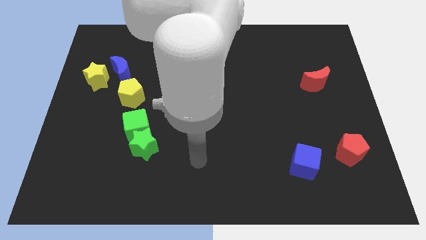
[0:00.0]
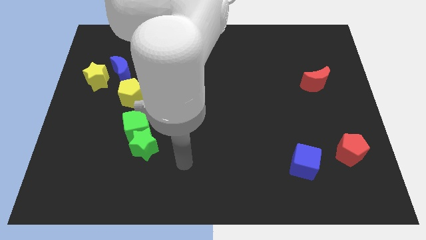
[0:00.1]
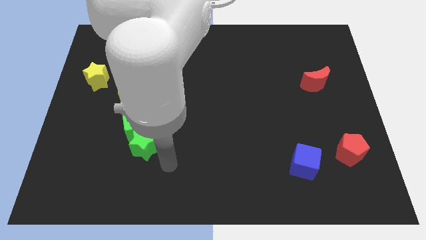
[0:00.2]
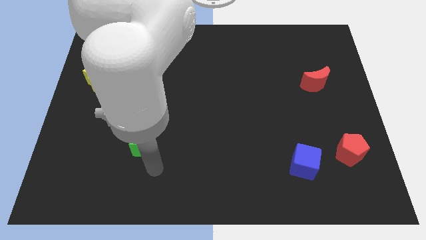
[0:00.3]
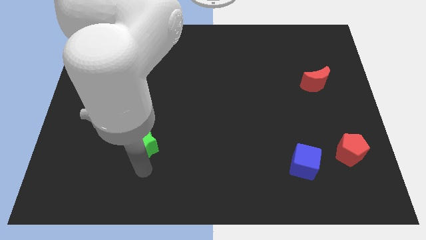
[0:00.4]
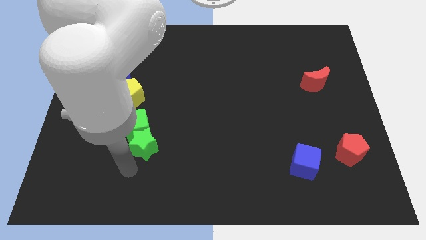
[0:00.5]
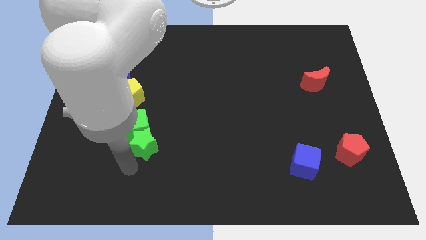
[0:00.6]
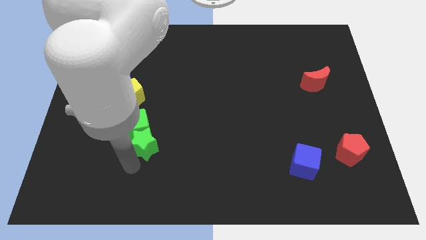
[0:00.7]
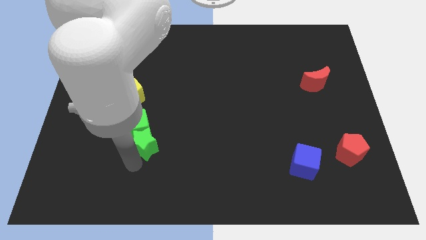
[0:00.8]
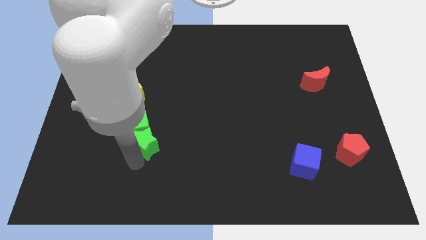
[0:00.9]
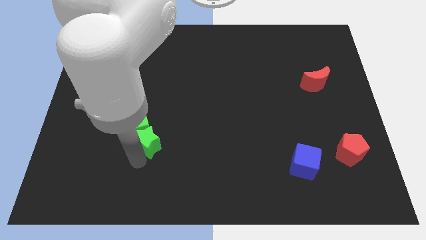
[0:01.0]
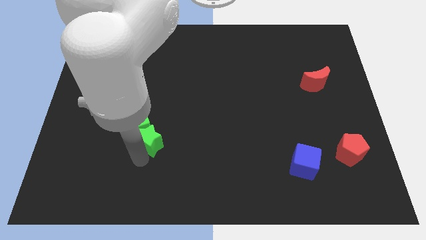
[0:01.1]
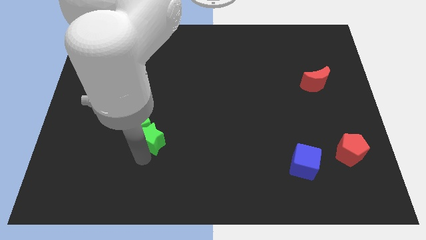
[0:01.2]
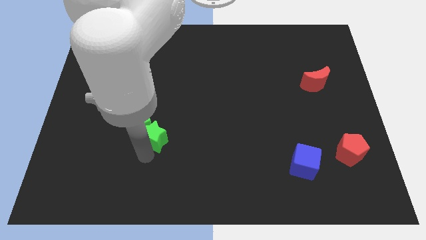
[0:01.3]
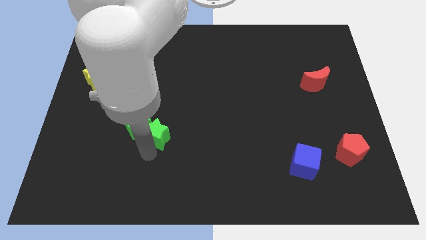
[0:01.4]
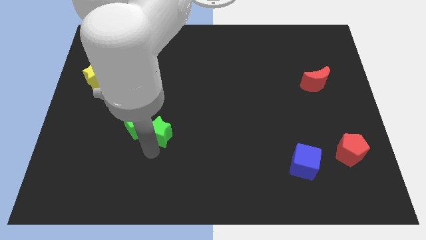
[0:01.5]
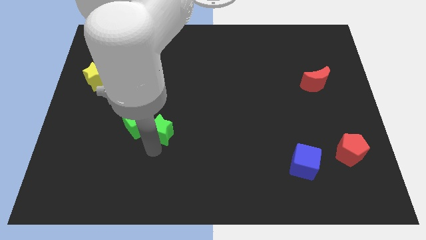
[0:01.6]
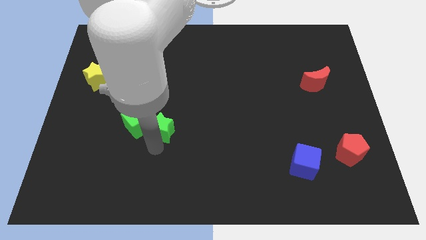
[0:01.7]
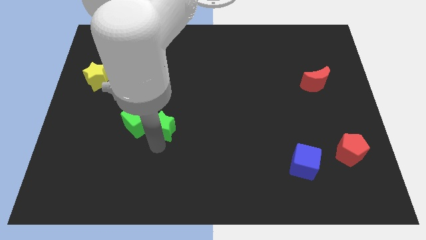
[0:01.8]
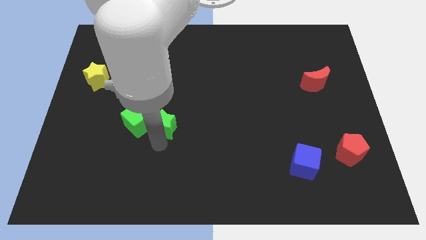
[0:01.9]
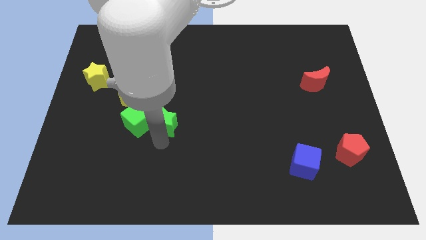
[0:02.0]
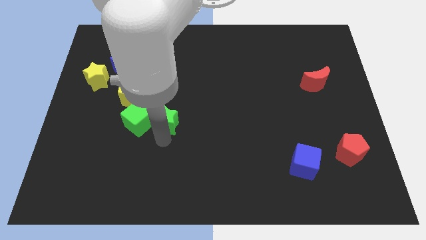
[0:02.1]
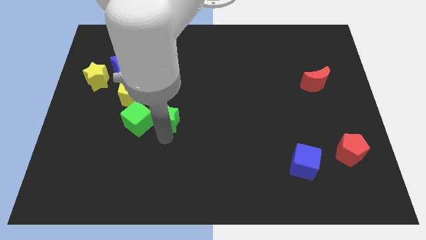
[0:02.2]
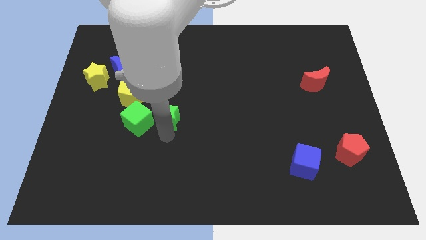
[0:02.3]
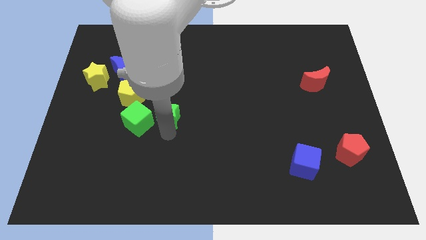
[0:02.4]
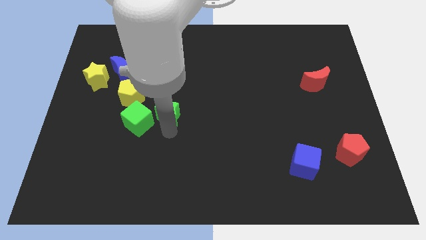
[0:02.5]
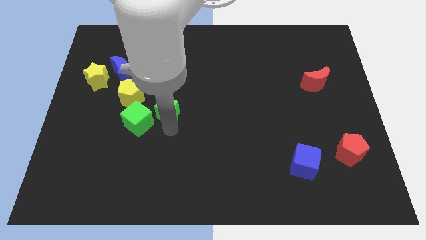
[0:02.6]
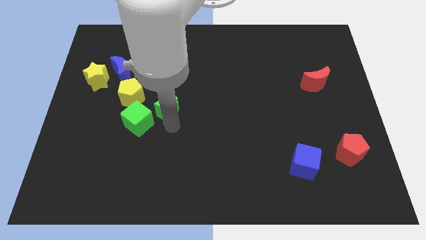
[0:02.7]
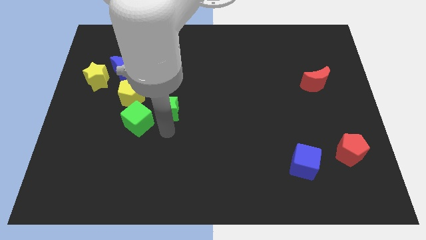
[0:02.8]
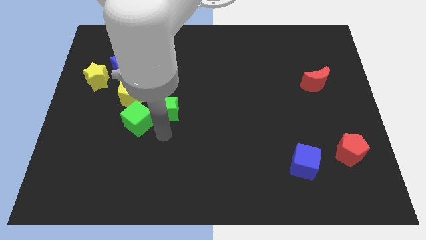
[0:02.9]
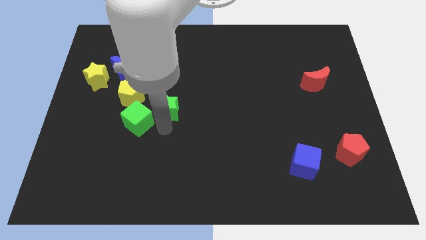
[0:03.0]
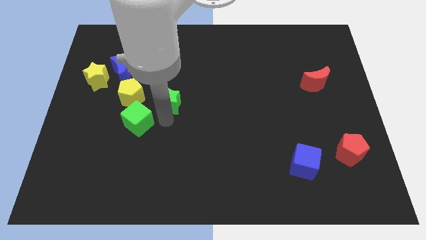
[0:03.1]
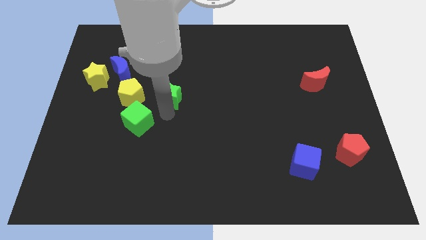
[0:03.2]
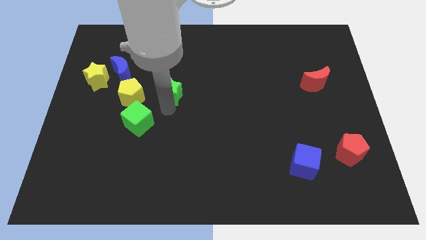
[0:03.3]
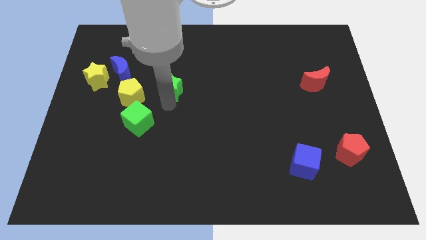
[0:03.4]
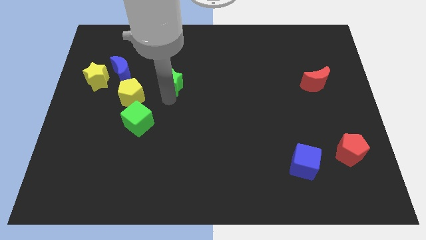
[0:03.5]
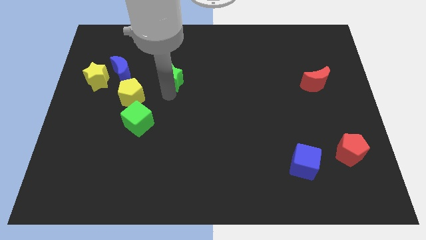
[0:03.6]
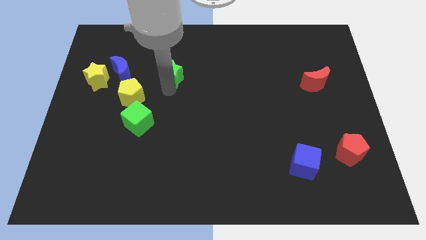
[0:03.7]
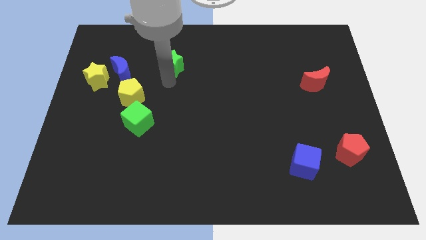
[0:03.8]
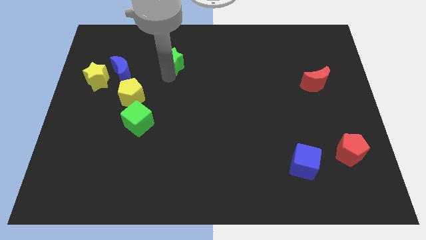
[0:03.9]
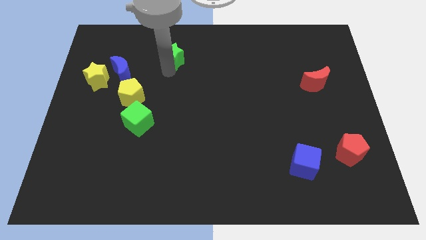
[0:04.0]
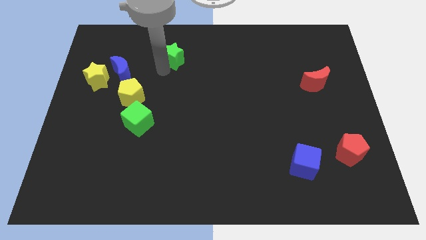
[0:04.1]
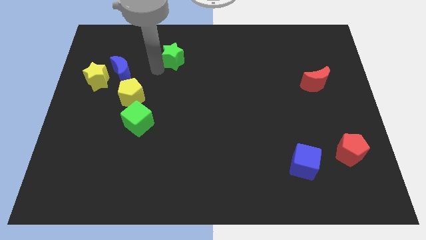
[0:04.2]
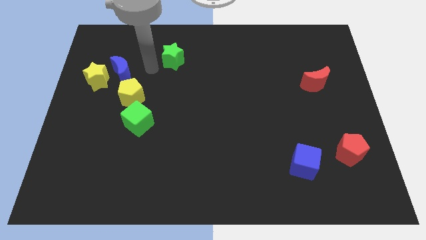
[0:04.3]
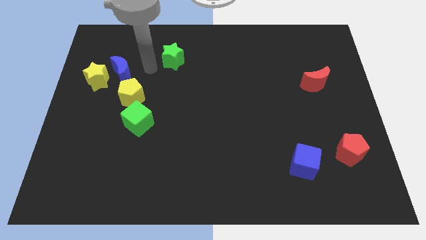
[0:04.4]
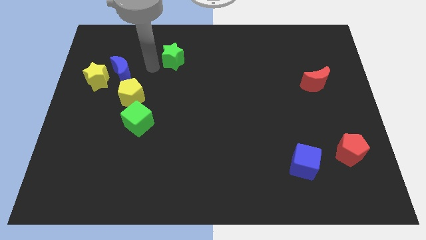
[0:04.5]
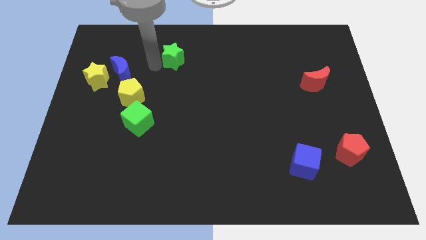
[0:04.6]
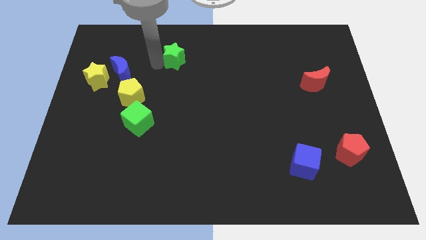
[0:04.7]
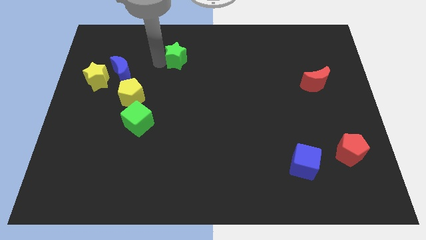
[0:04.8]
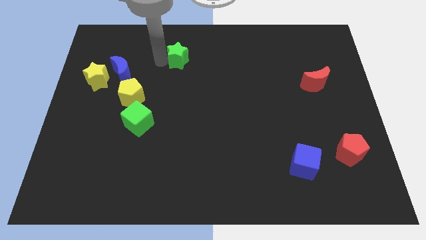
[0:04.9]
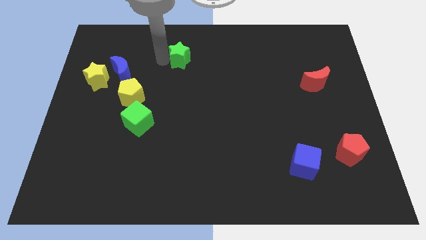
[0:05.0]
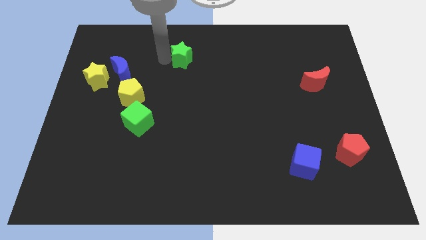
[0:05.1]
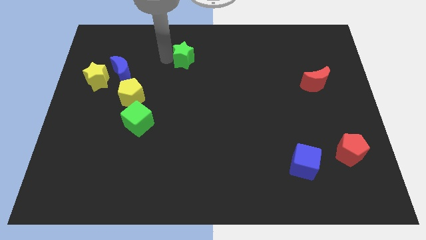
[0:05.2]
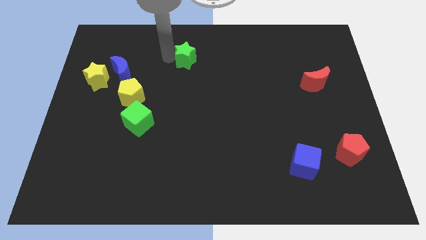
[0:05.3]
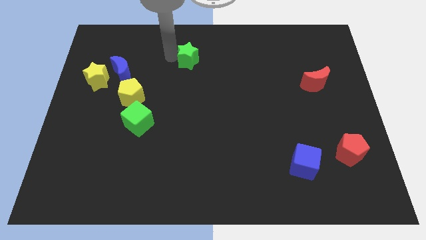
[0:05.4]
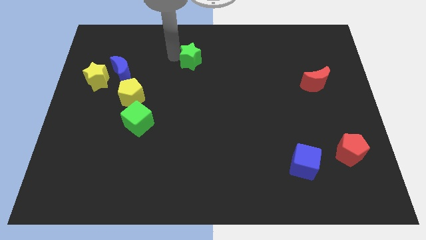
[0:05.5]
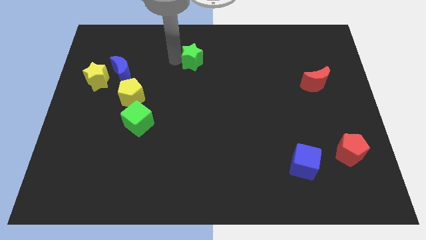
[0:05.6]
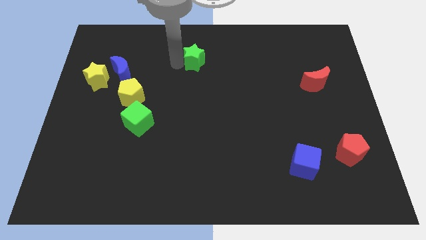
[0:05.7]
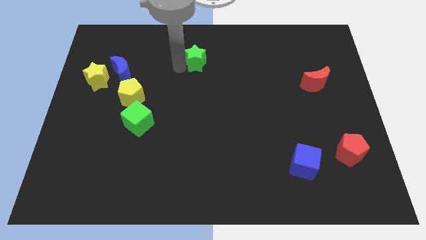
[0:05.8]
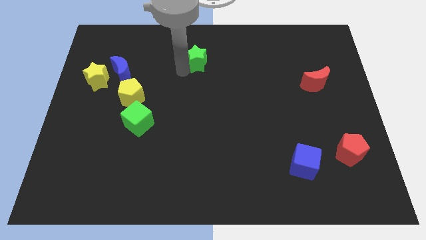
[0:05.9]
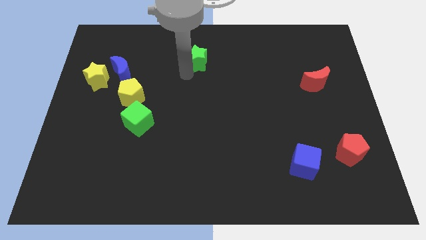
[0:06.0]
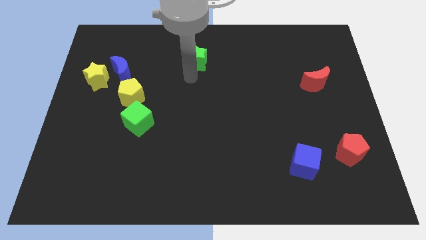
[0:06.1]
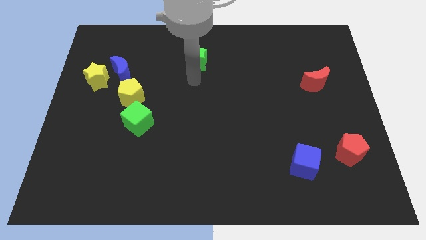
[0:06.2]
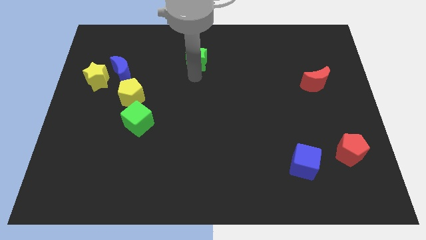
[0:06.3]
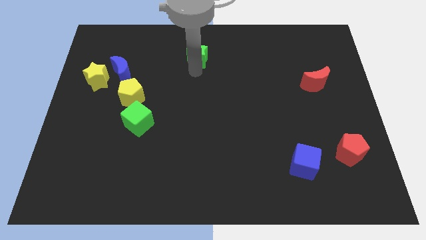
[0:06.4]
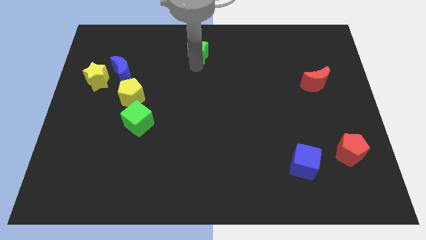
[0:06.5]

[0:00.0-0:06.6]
put the green star to the towards your base

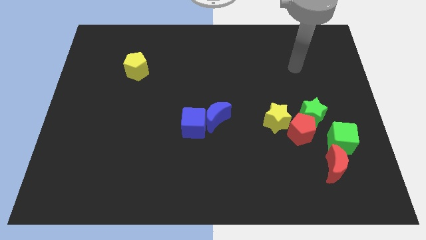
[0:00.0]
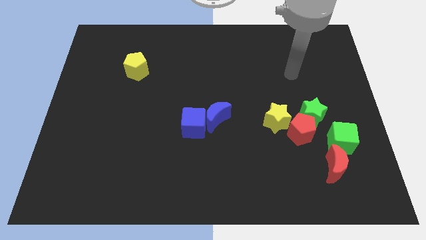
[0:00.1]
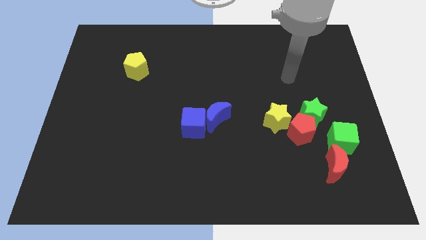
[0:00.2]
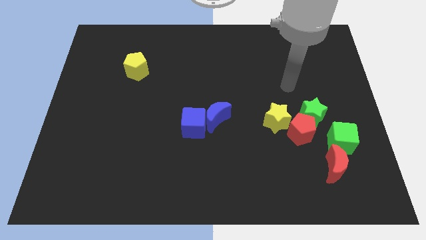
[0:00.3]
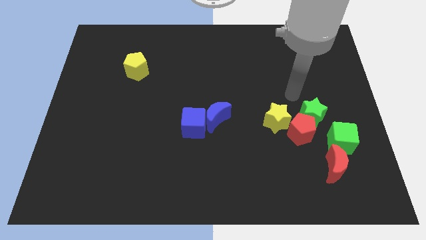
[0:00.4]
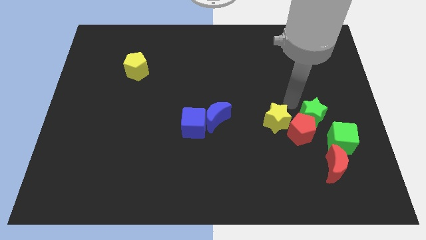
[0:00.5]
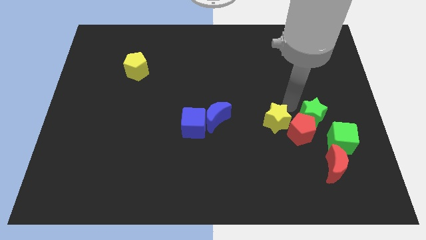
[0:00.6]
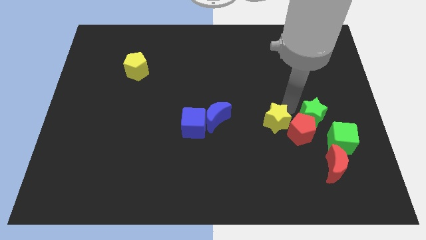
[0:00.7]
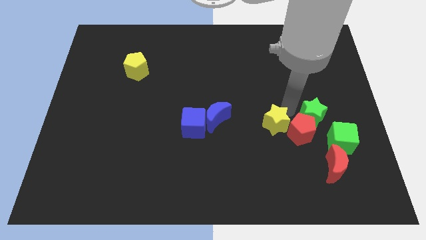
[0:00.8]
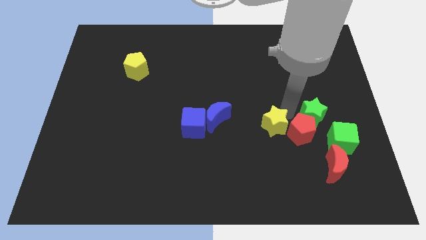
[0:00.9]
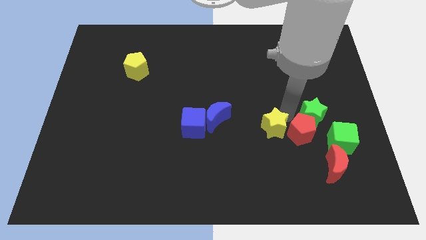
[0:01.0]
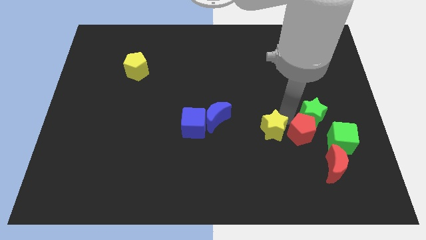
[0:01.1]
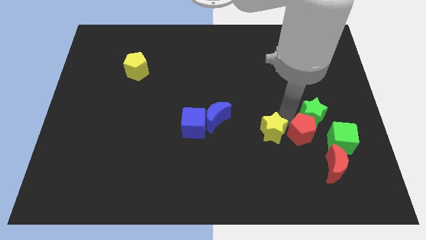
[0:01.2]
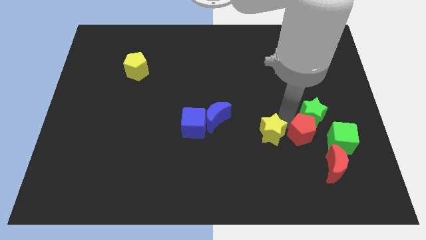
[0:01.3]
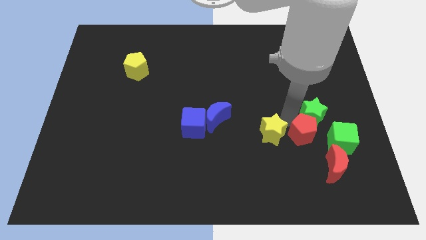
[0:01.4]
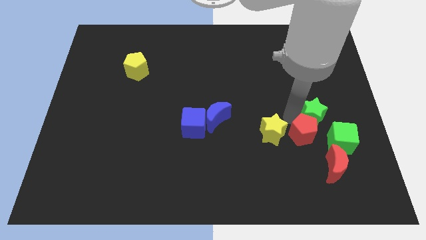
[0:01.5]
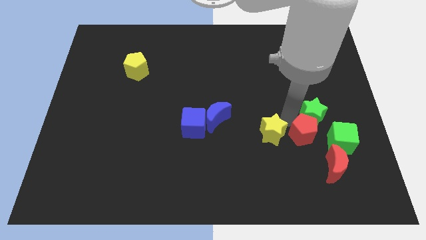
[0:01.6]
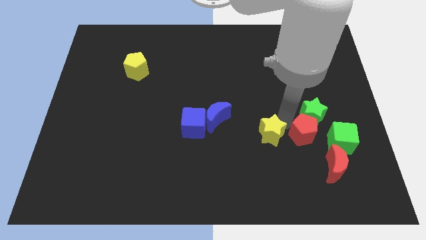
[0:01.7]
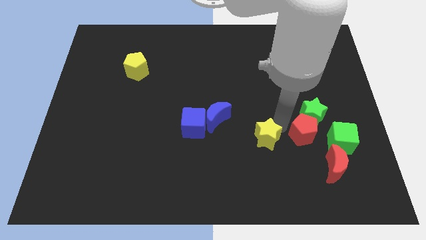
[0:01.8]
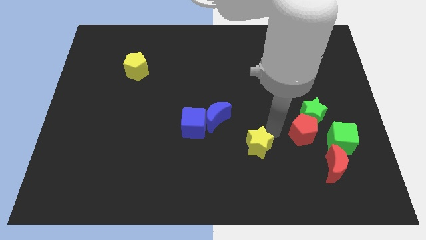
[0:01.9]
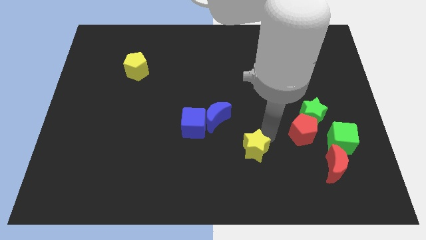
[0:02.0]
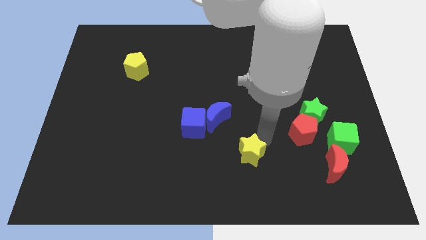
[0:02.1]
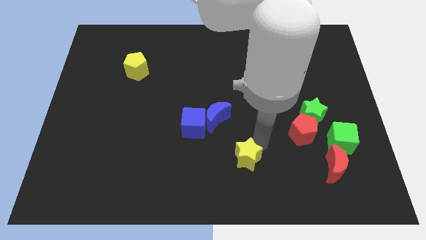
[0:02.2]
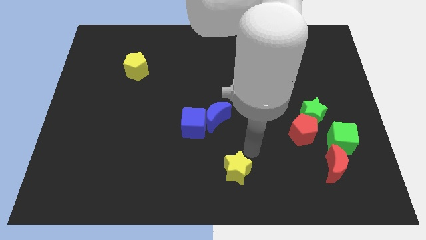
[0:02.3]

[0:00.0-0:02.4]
put the yellow star to the bottom
